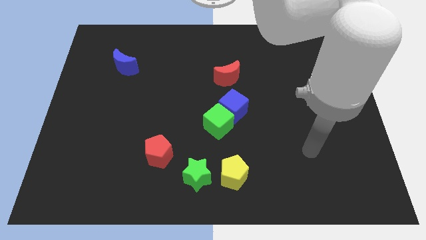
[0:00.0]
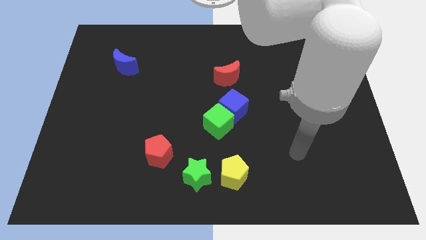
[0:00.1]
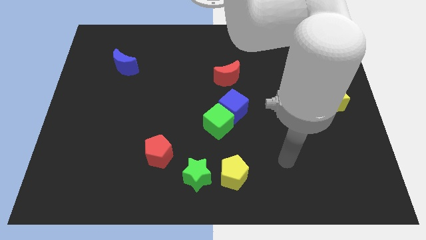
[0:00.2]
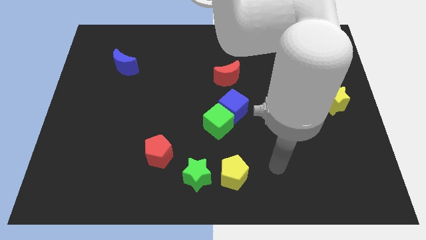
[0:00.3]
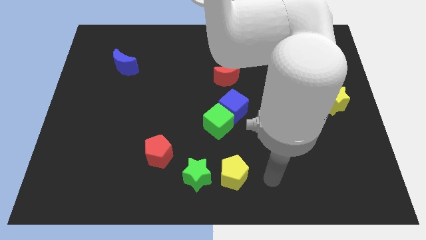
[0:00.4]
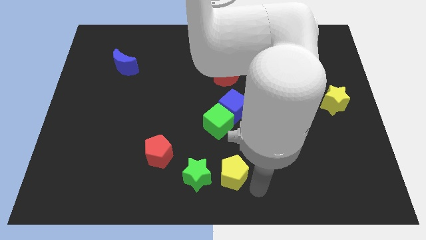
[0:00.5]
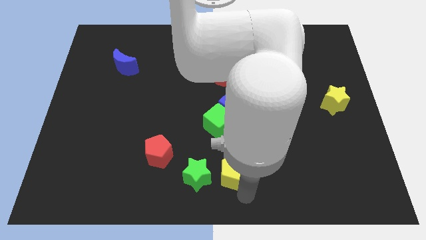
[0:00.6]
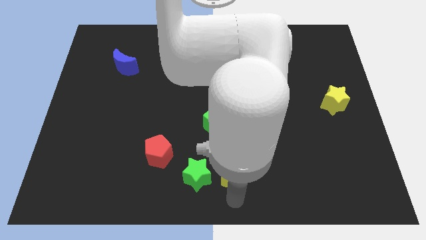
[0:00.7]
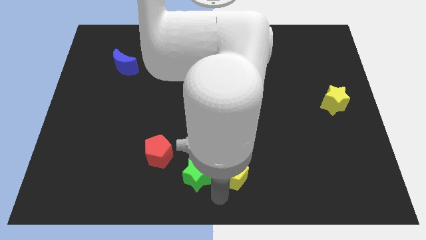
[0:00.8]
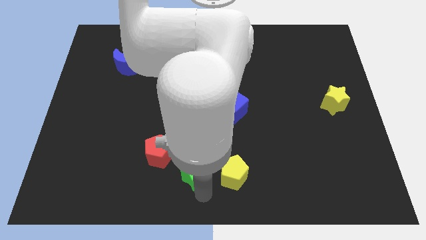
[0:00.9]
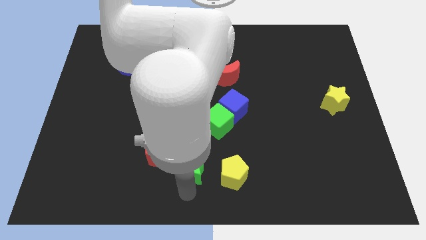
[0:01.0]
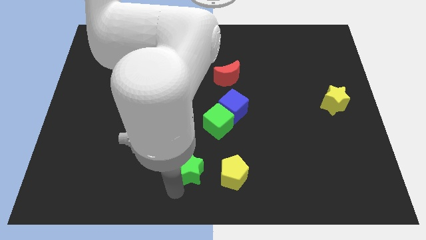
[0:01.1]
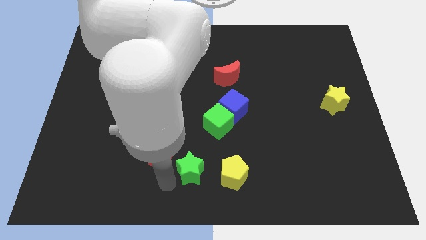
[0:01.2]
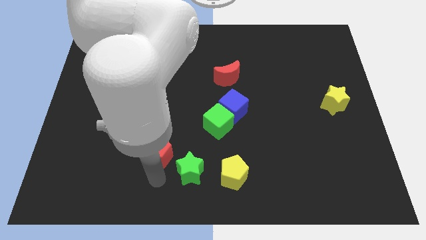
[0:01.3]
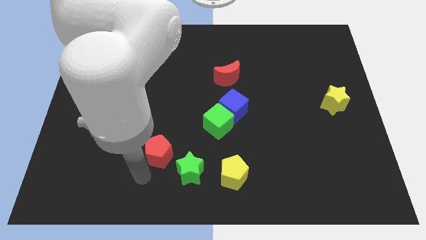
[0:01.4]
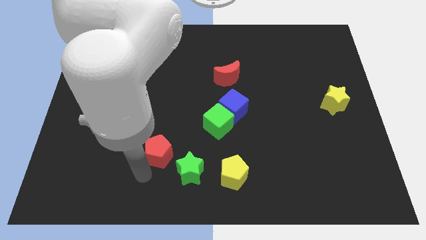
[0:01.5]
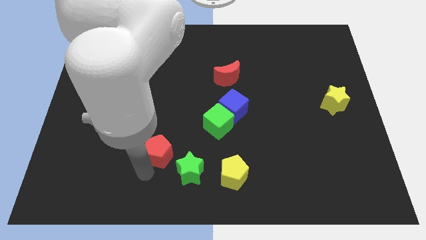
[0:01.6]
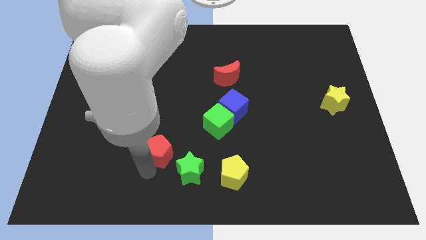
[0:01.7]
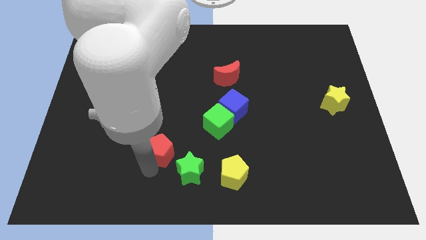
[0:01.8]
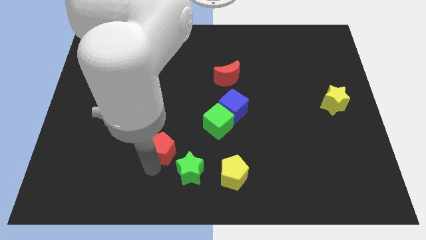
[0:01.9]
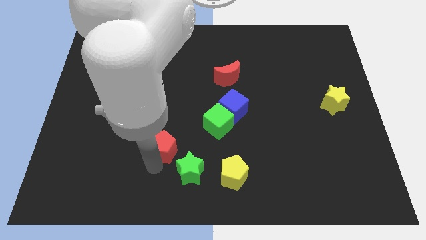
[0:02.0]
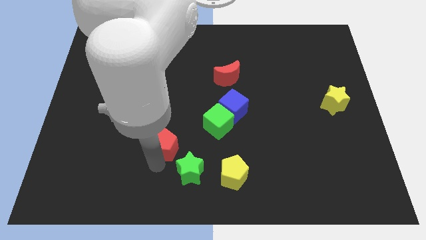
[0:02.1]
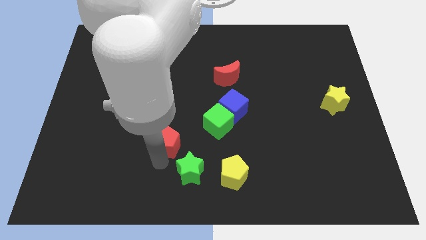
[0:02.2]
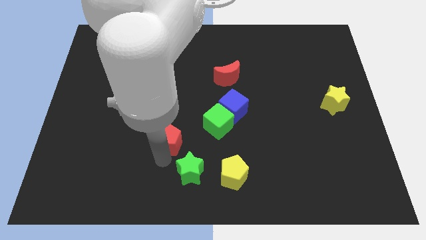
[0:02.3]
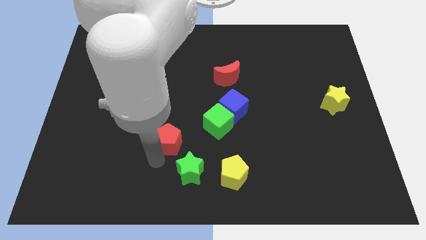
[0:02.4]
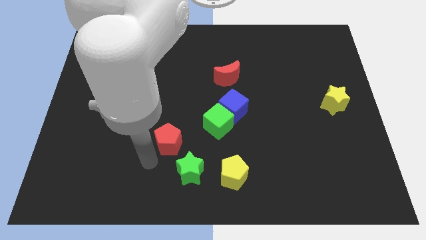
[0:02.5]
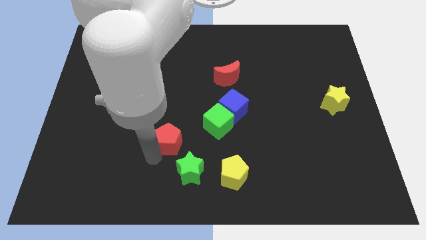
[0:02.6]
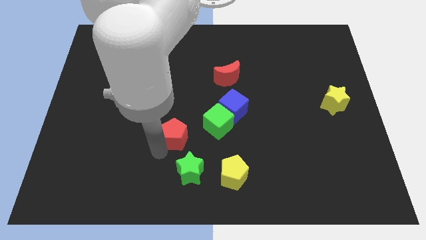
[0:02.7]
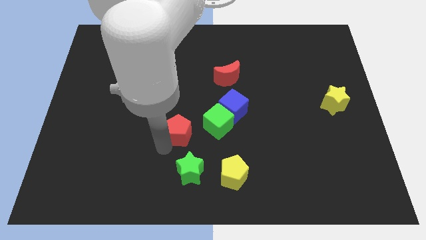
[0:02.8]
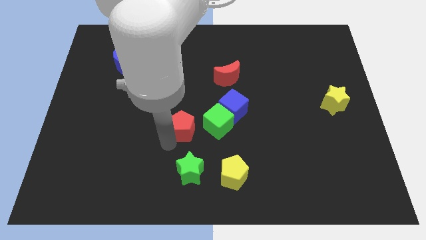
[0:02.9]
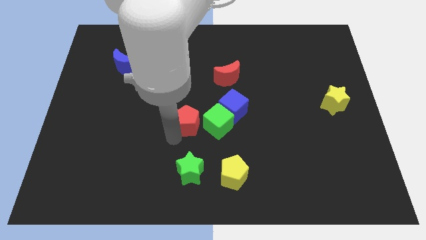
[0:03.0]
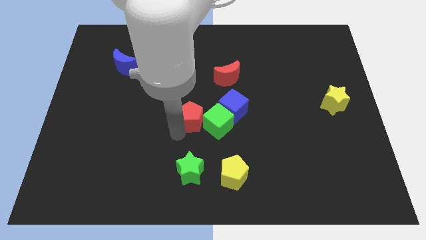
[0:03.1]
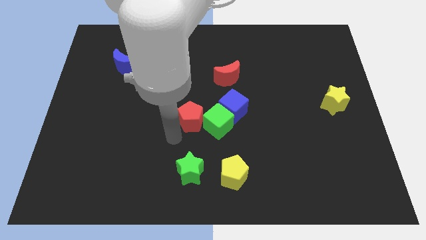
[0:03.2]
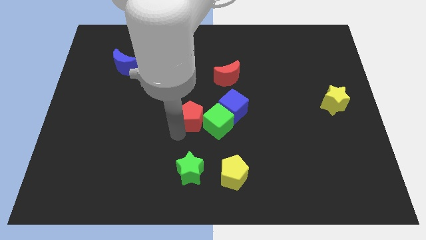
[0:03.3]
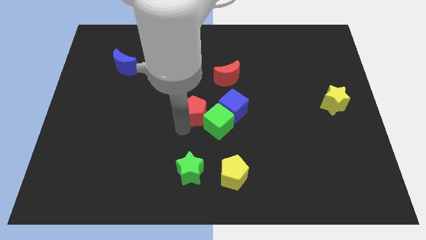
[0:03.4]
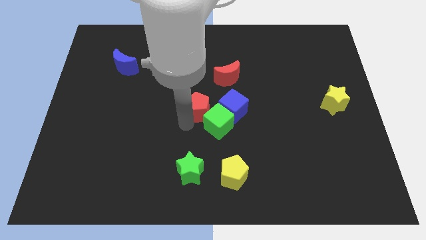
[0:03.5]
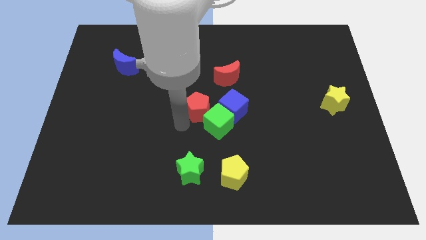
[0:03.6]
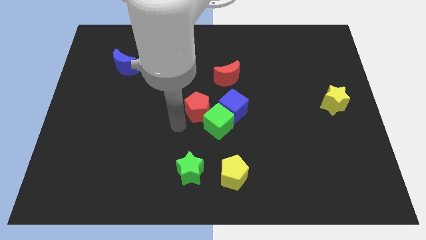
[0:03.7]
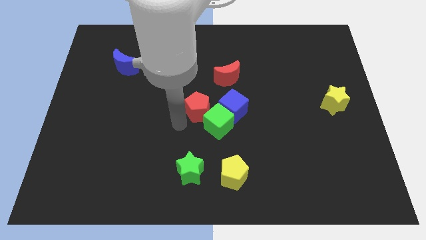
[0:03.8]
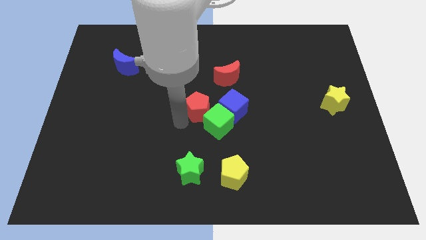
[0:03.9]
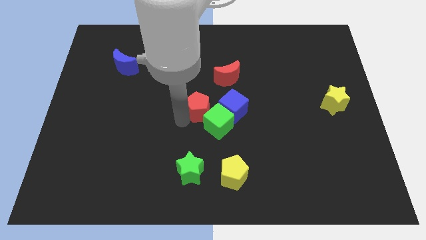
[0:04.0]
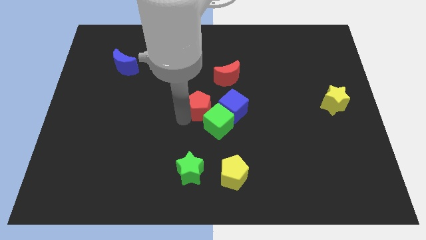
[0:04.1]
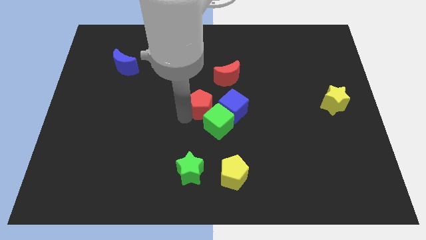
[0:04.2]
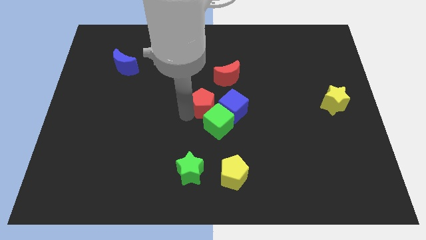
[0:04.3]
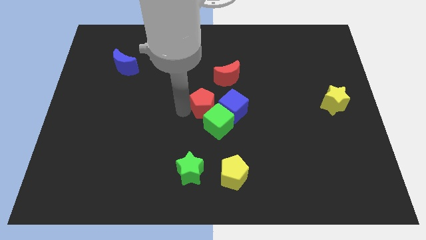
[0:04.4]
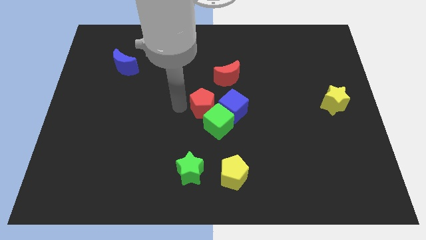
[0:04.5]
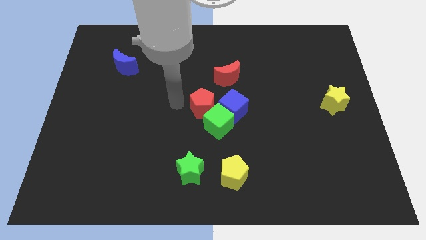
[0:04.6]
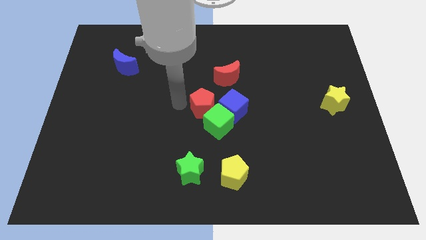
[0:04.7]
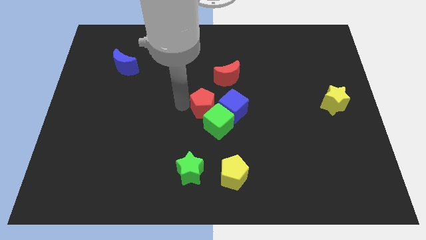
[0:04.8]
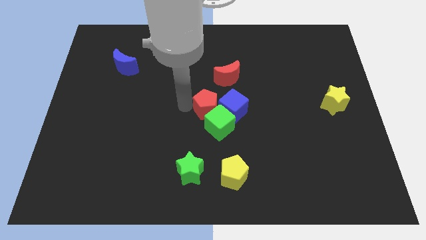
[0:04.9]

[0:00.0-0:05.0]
slide the red pentagon to the blue cube

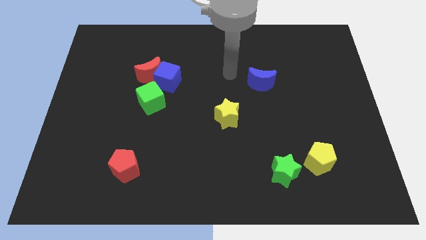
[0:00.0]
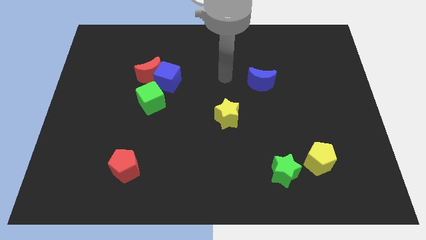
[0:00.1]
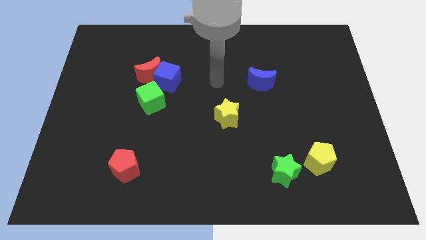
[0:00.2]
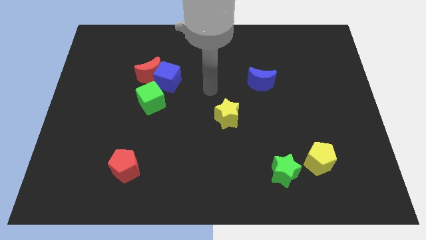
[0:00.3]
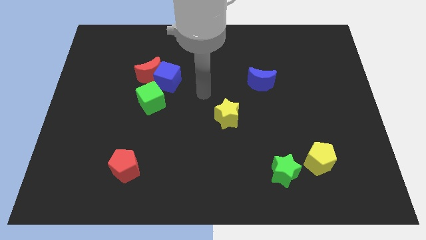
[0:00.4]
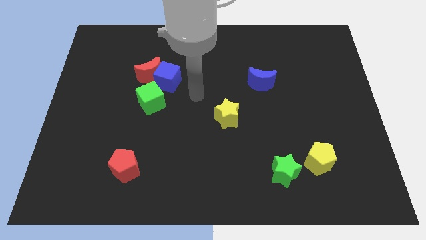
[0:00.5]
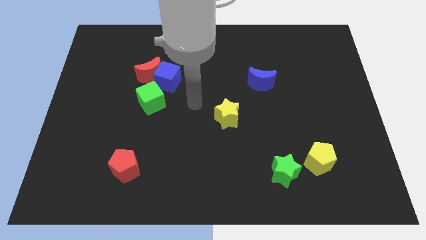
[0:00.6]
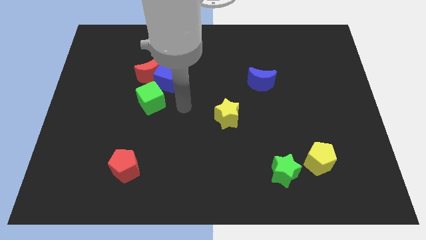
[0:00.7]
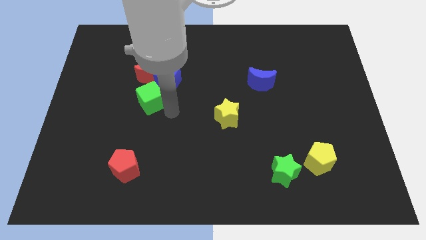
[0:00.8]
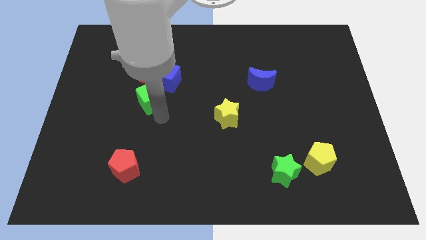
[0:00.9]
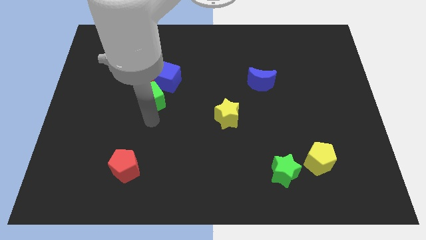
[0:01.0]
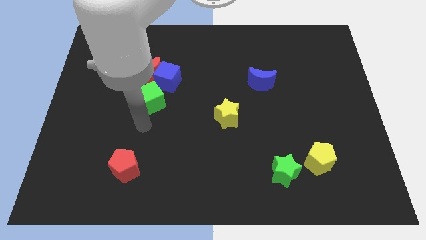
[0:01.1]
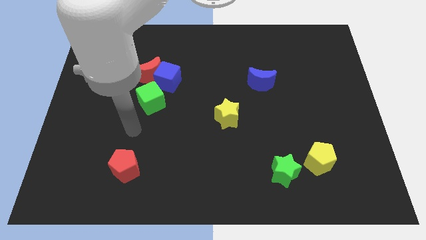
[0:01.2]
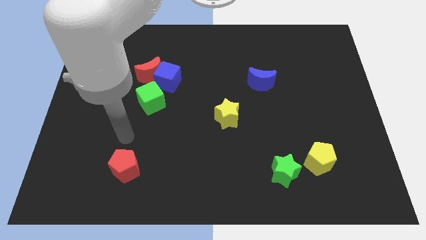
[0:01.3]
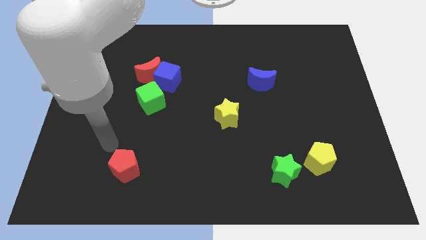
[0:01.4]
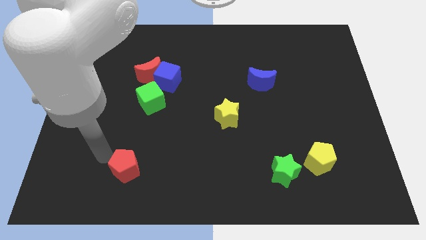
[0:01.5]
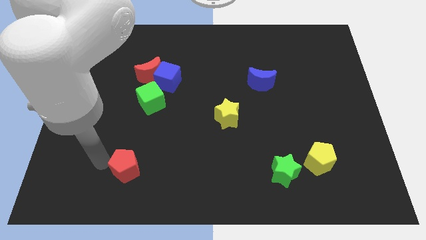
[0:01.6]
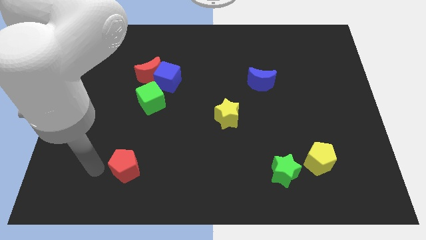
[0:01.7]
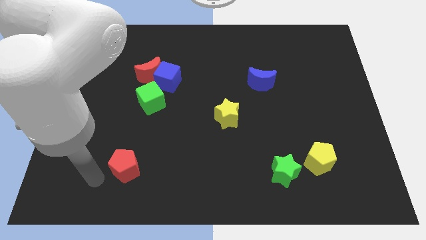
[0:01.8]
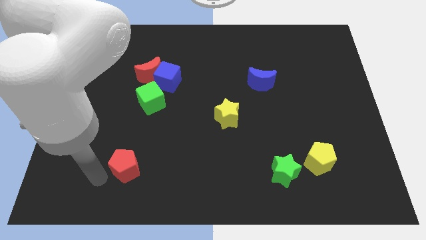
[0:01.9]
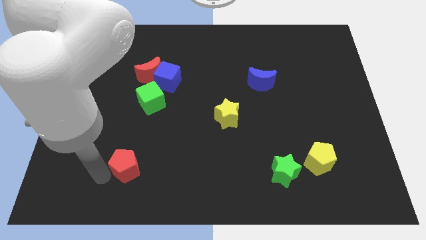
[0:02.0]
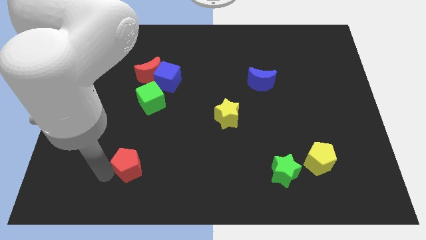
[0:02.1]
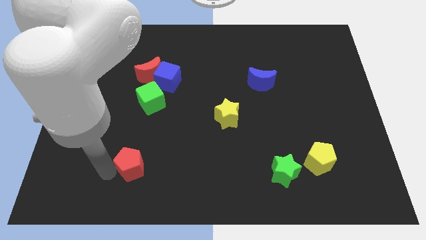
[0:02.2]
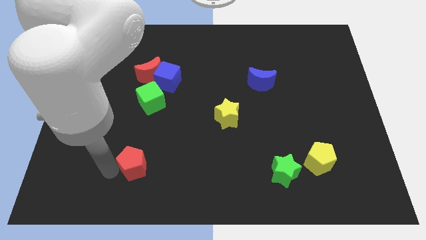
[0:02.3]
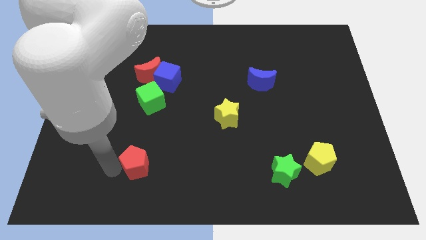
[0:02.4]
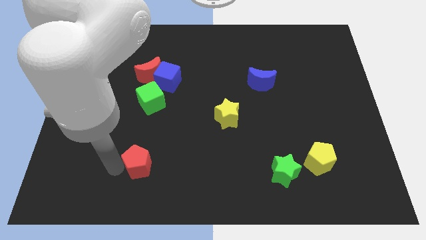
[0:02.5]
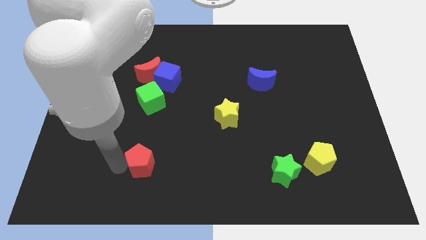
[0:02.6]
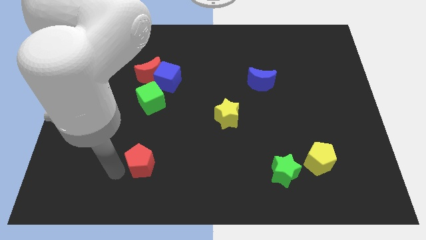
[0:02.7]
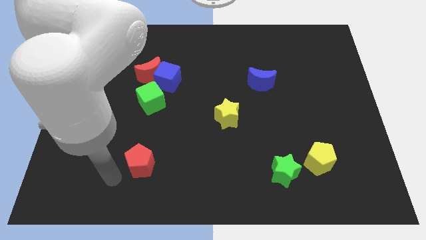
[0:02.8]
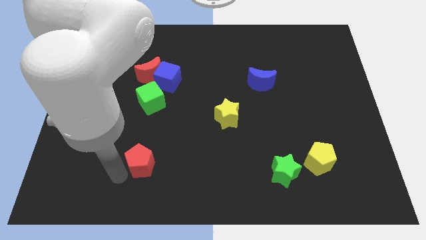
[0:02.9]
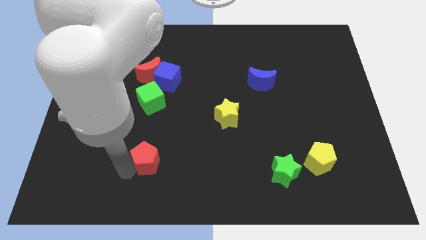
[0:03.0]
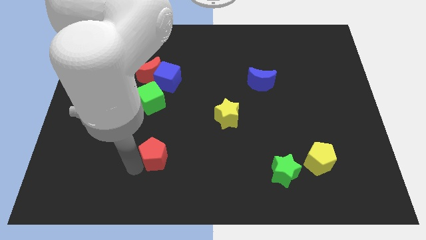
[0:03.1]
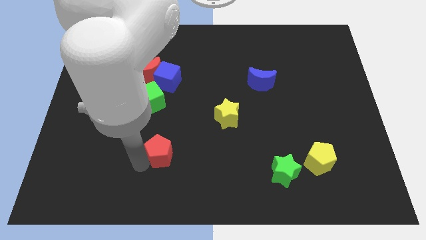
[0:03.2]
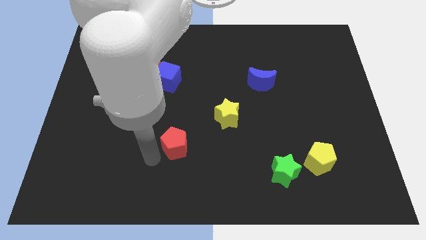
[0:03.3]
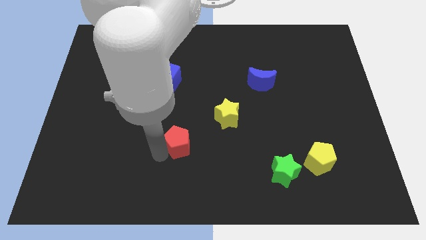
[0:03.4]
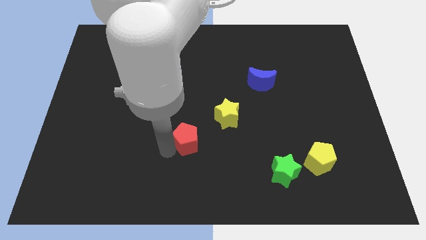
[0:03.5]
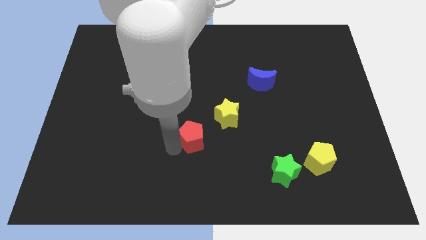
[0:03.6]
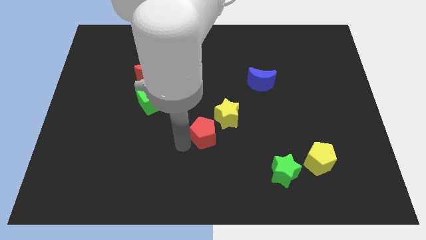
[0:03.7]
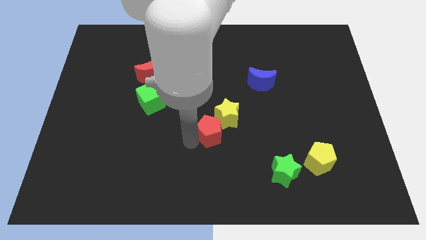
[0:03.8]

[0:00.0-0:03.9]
slide the red pentagon close to the yellow star
